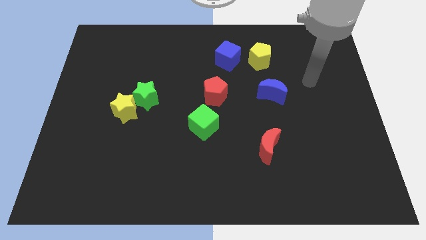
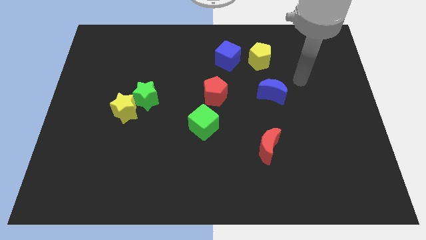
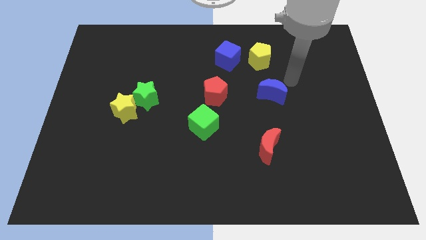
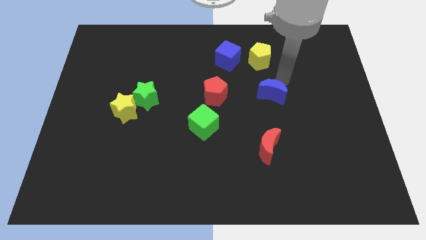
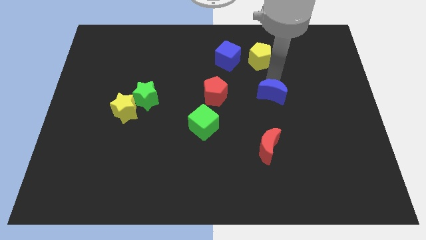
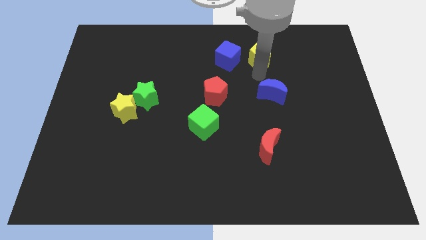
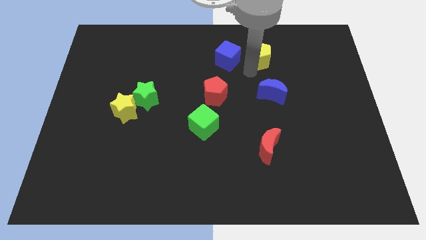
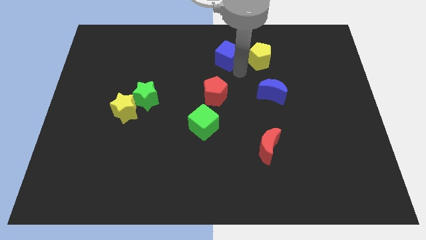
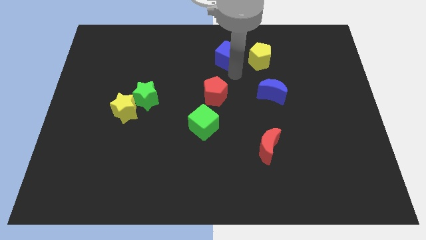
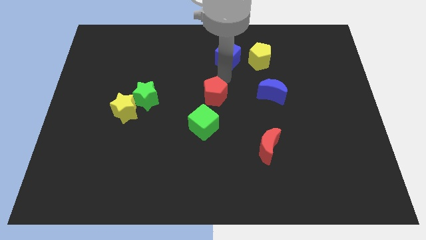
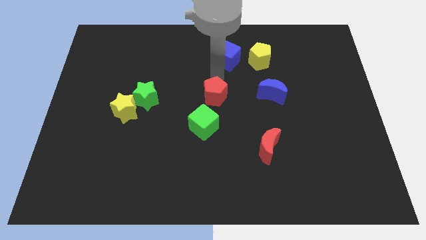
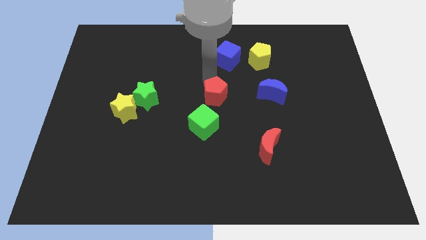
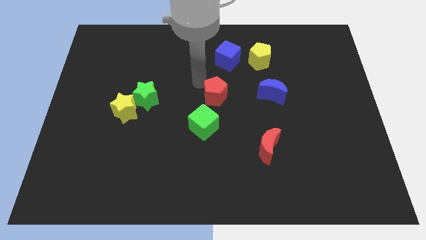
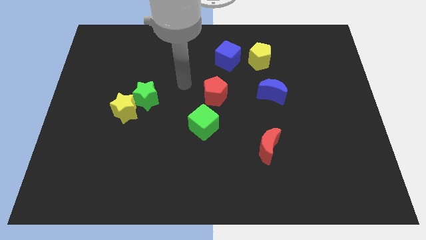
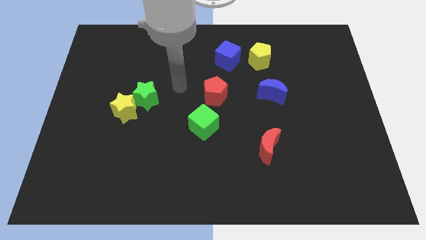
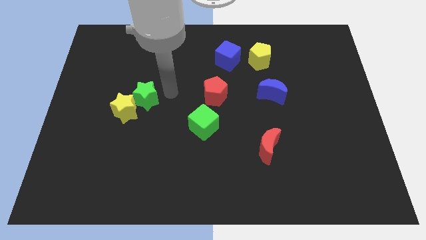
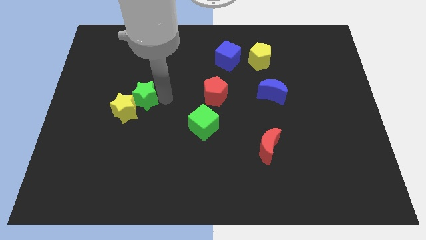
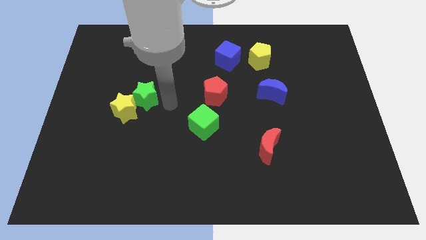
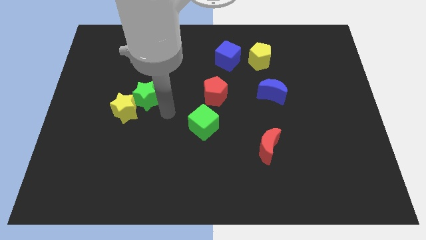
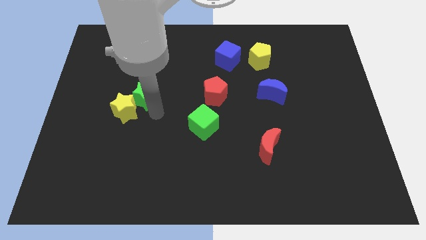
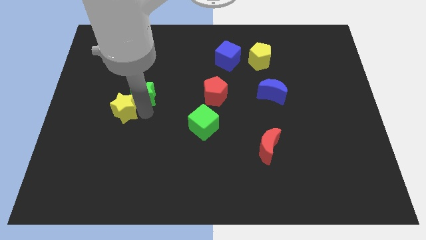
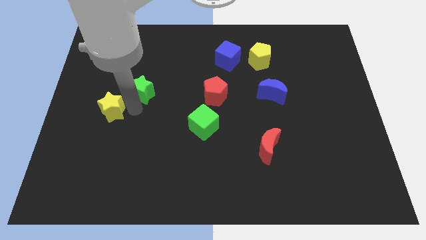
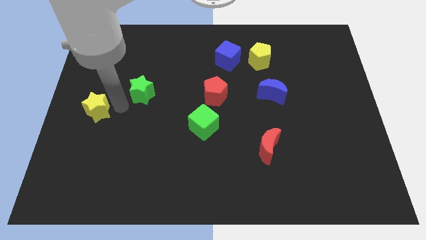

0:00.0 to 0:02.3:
separate the green star from the yellow star

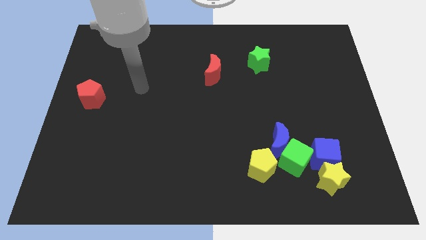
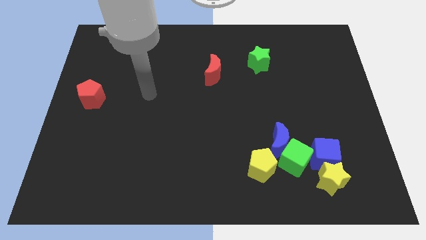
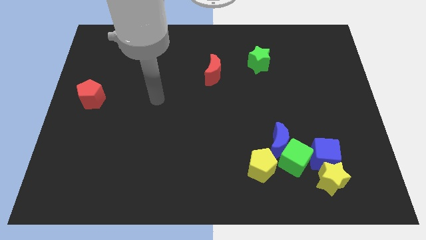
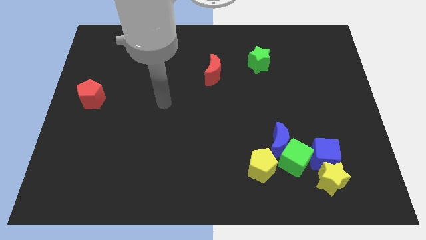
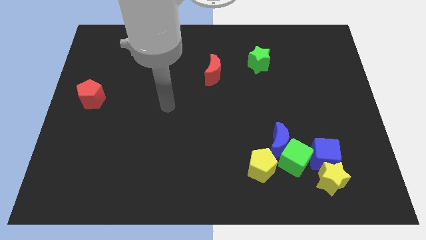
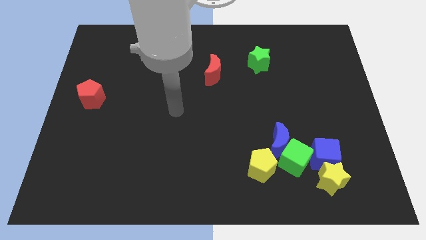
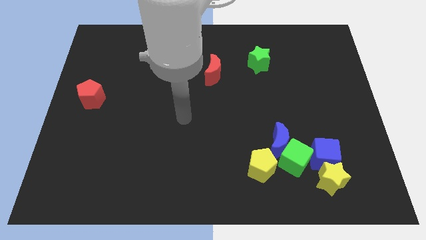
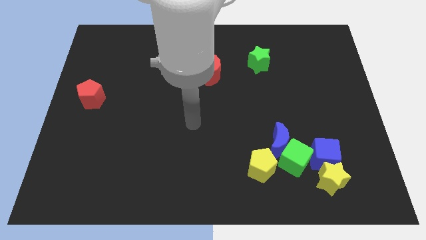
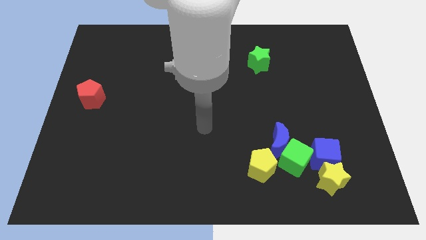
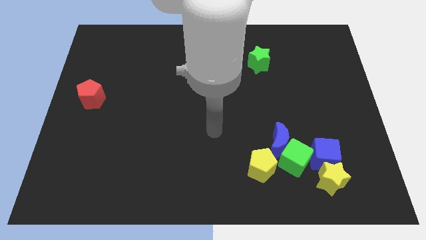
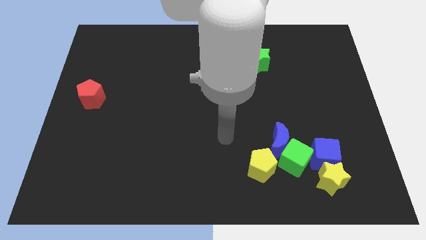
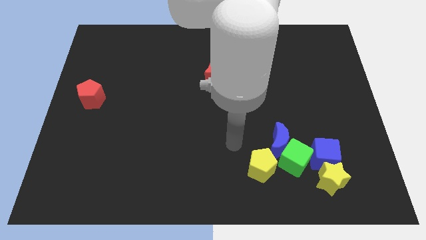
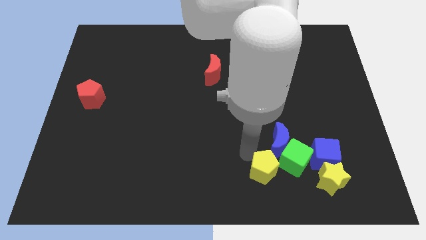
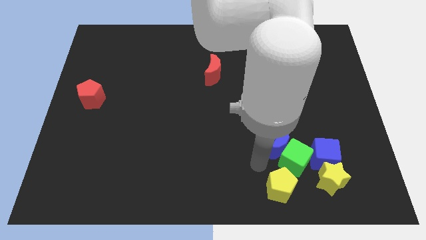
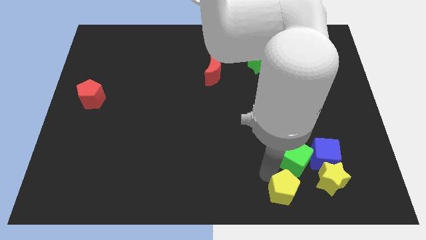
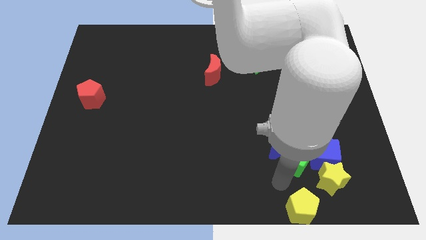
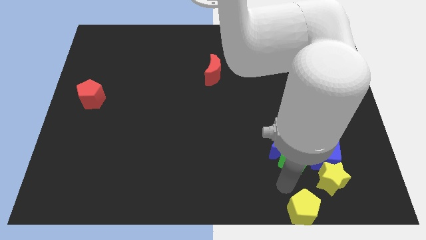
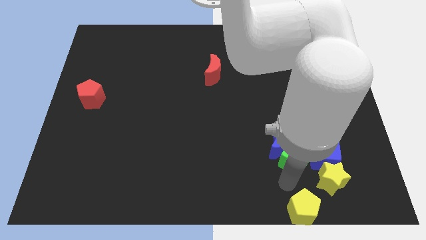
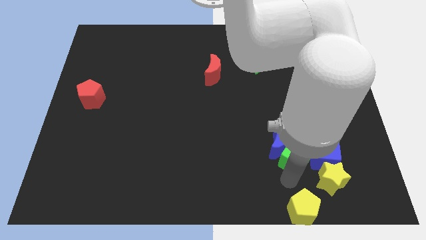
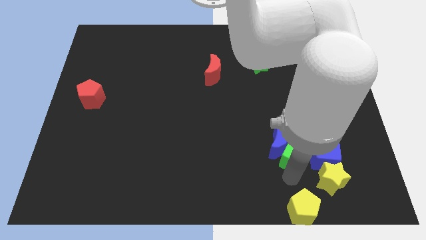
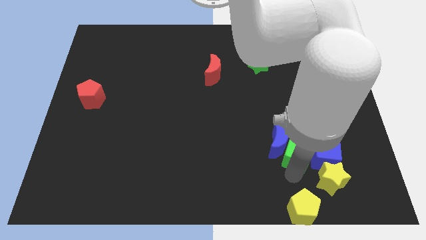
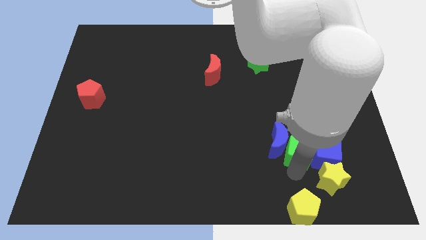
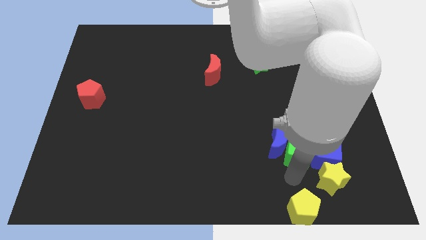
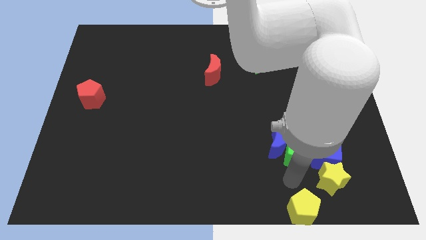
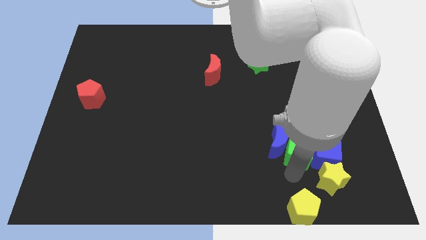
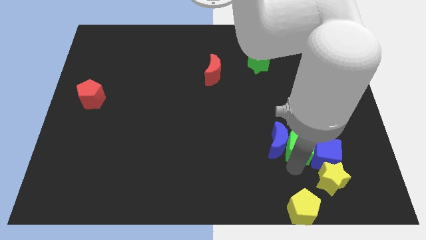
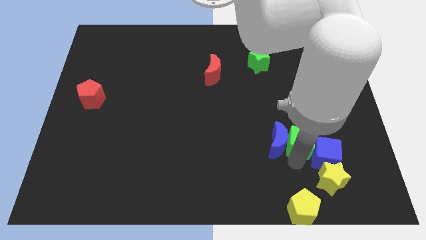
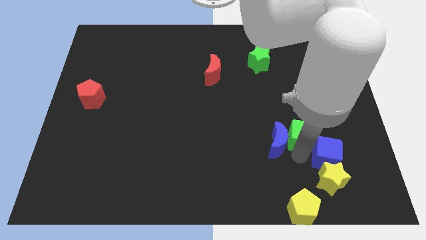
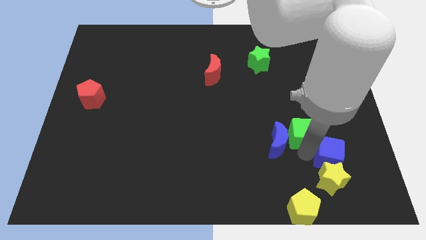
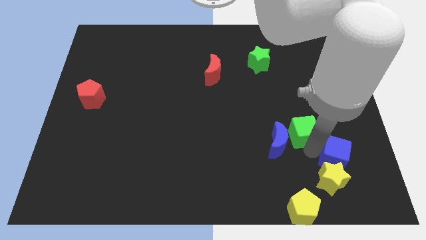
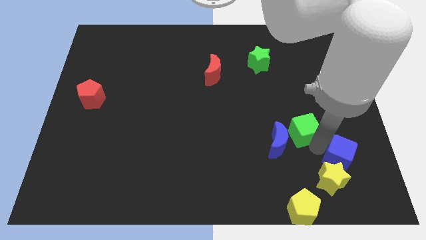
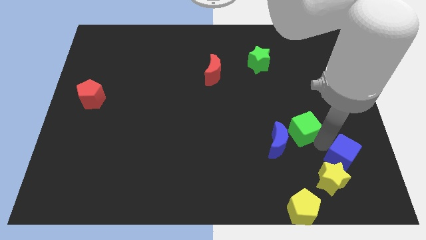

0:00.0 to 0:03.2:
separate the green cube from the group

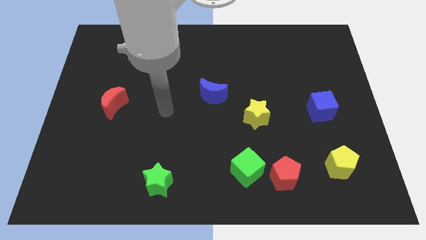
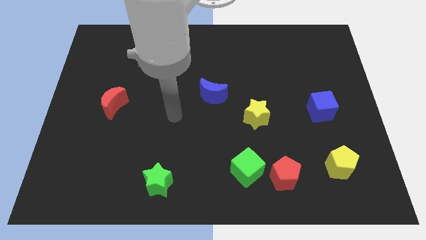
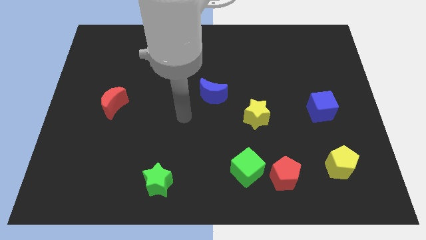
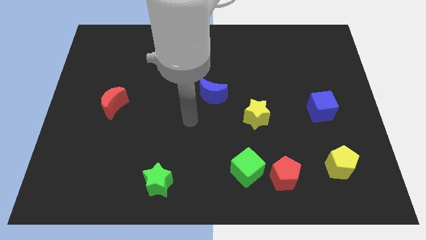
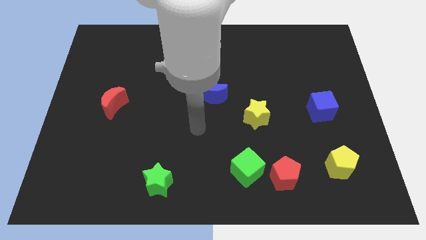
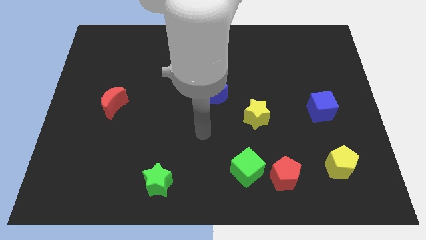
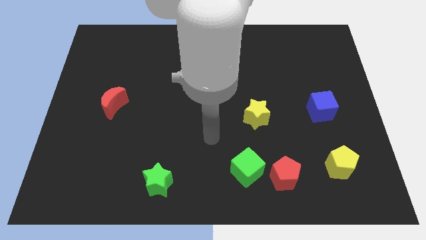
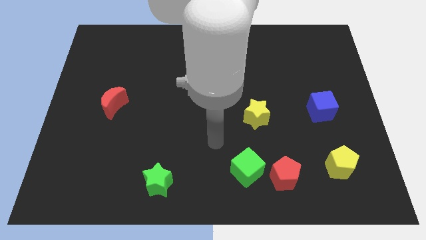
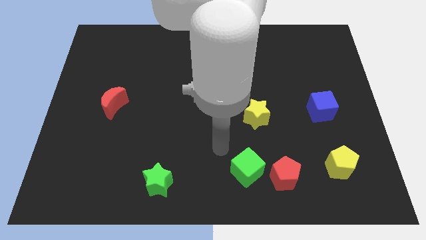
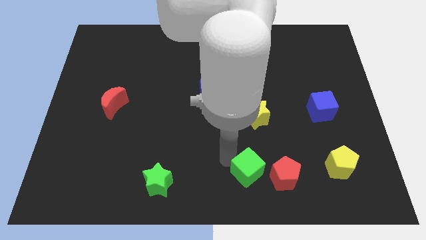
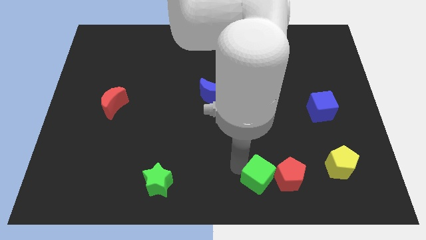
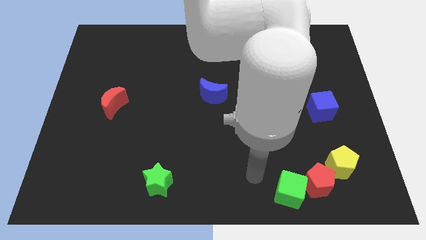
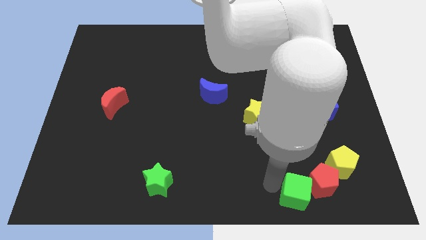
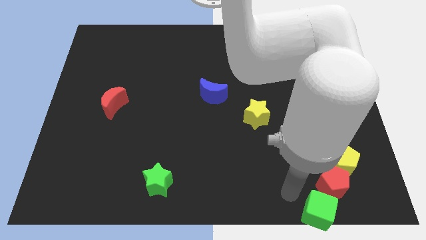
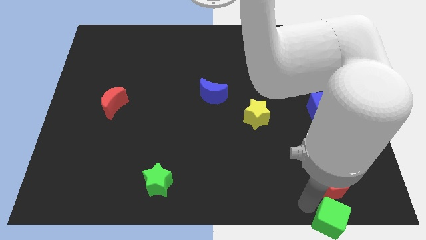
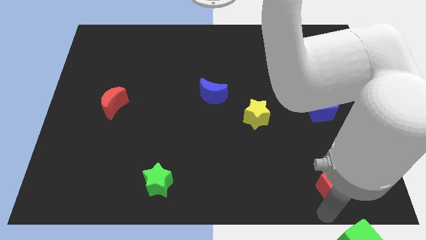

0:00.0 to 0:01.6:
pull the red pentagon apart from the green cube

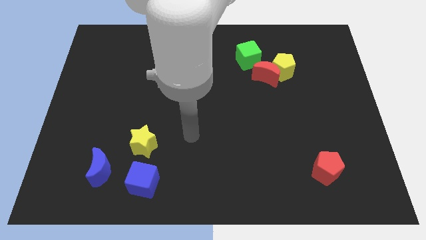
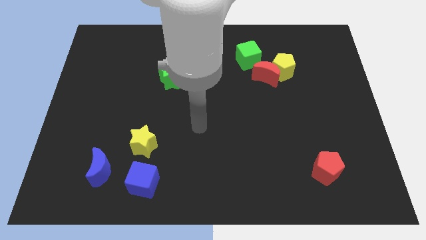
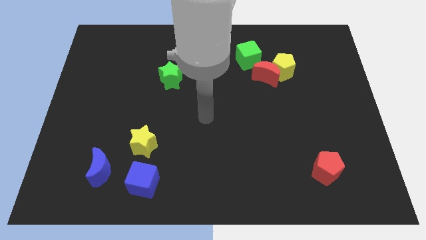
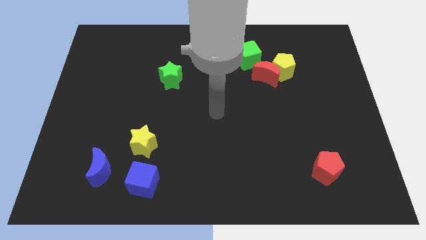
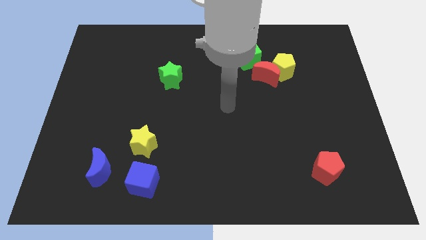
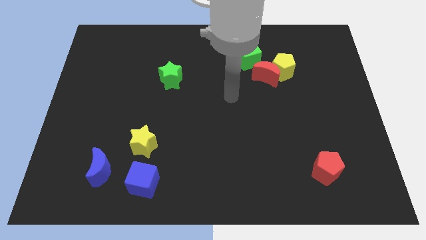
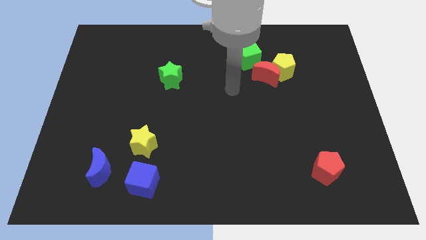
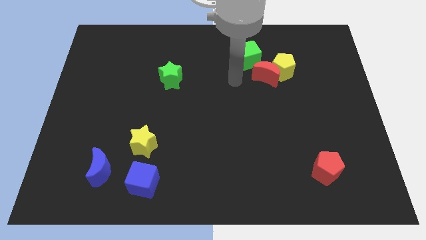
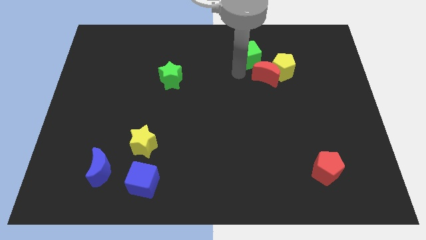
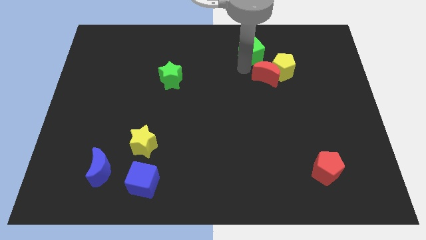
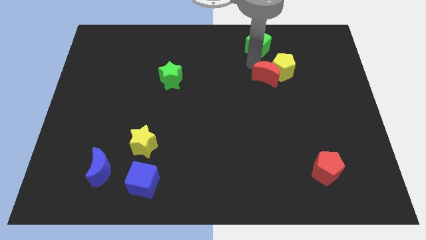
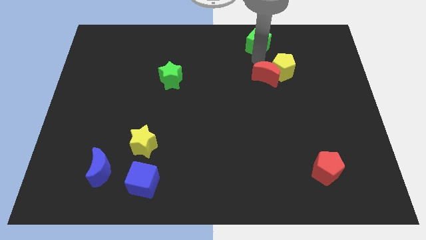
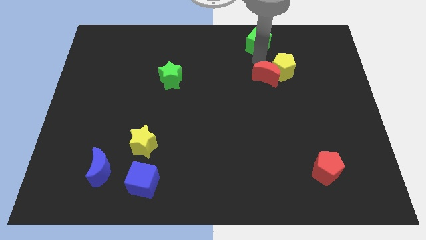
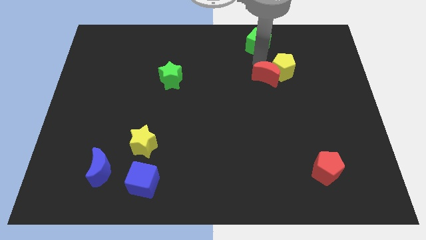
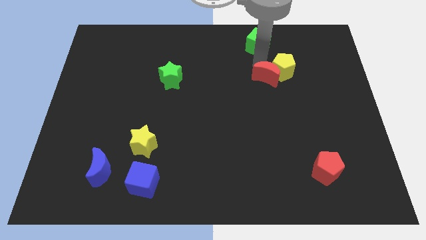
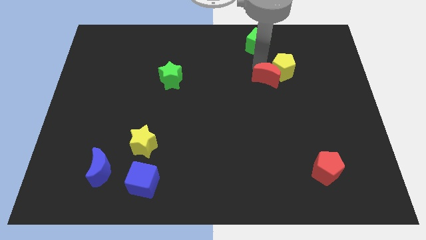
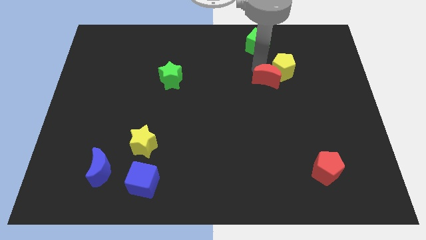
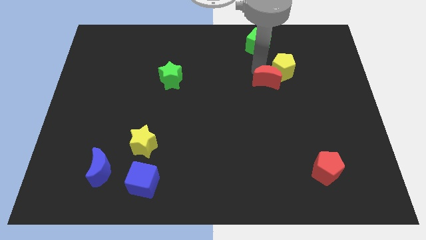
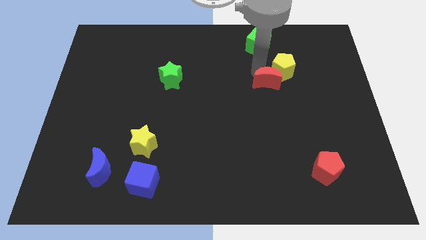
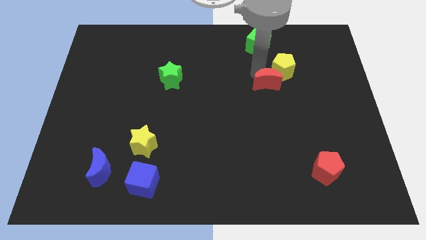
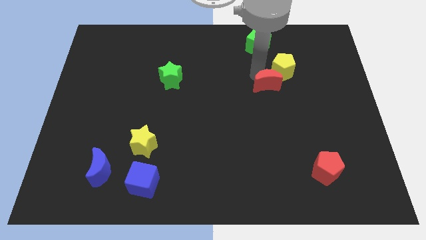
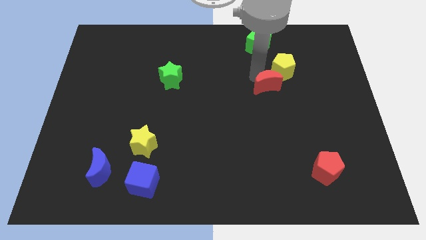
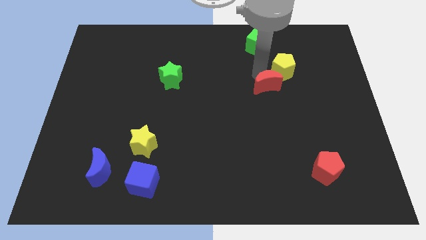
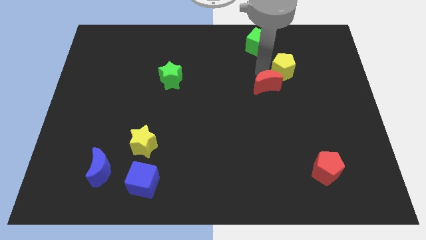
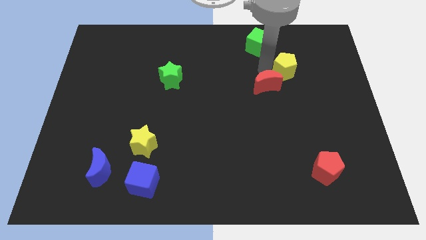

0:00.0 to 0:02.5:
pull the red moon apart from the yellow pentagon and green cube
